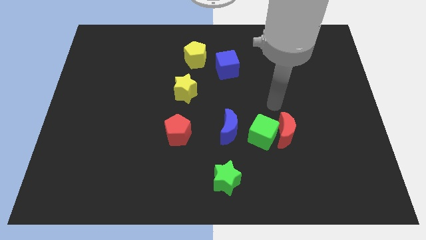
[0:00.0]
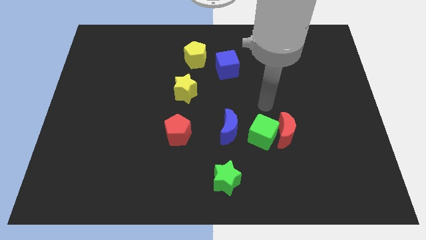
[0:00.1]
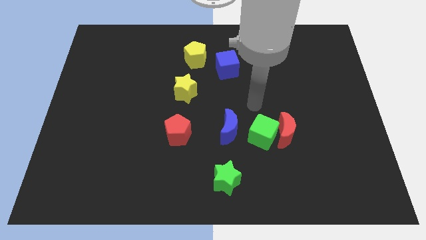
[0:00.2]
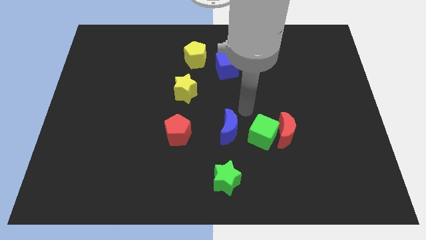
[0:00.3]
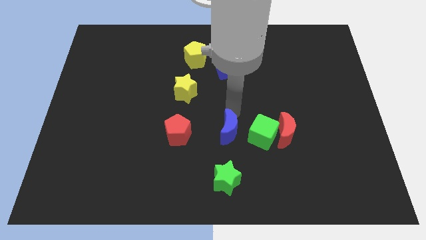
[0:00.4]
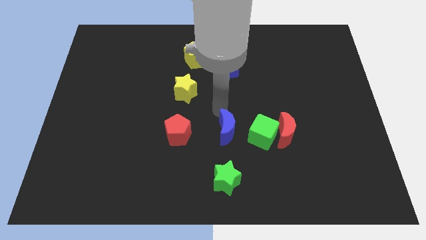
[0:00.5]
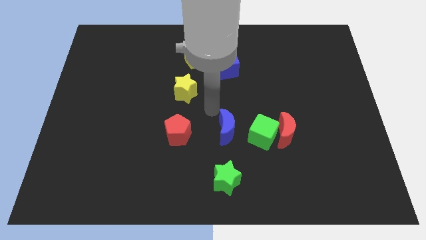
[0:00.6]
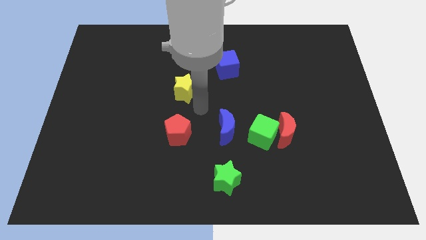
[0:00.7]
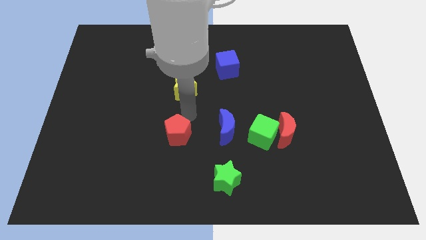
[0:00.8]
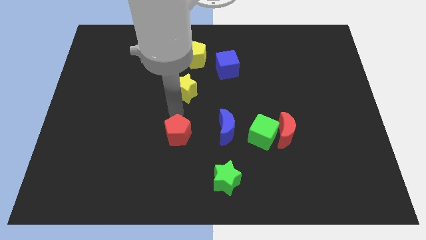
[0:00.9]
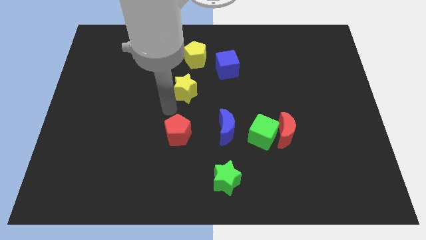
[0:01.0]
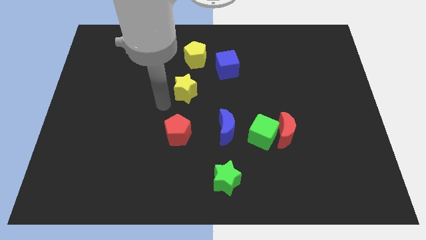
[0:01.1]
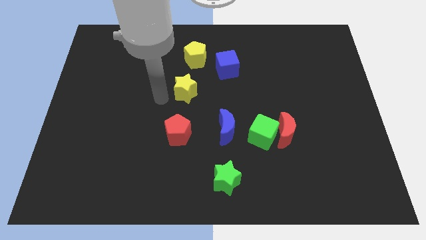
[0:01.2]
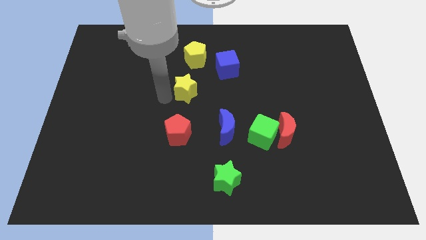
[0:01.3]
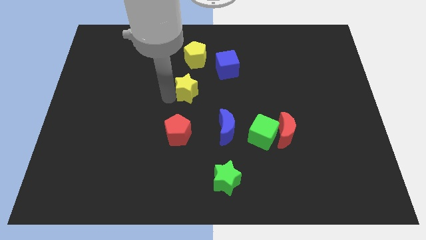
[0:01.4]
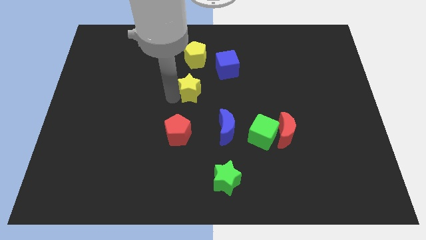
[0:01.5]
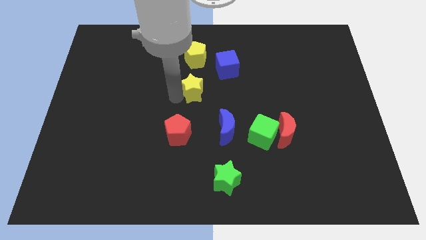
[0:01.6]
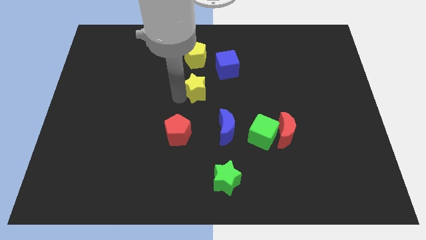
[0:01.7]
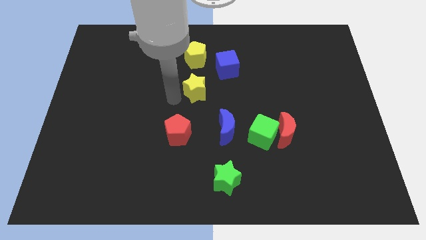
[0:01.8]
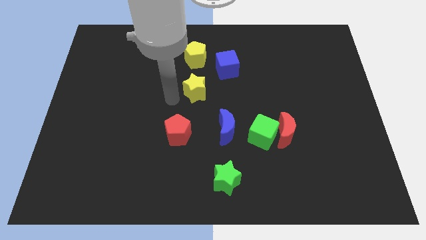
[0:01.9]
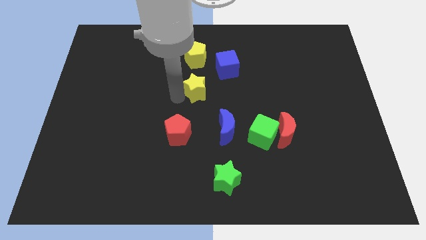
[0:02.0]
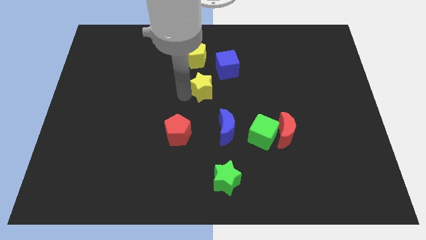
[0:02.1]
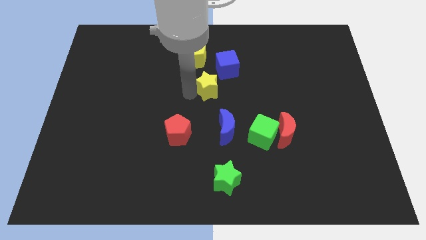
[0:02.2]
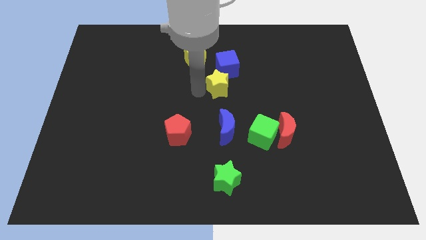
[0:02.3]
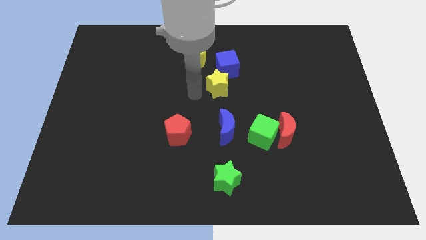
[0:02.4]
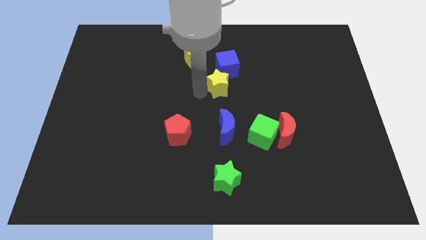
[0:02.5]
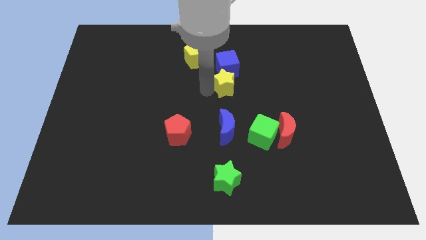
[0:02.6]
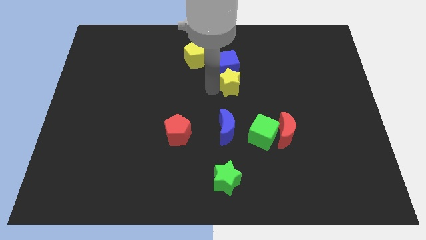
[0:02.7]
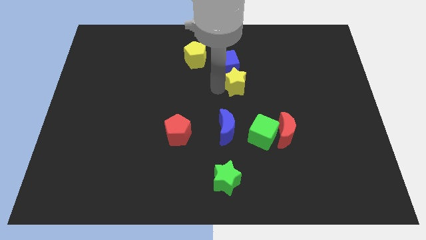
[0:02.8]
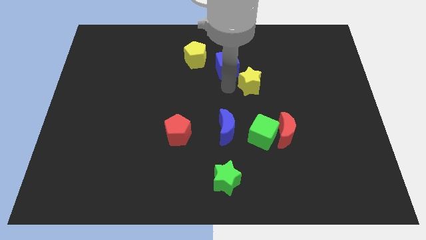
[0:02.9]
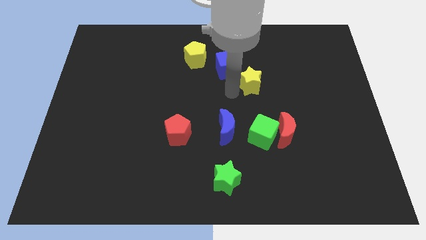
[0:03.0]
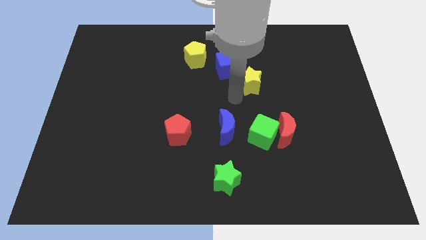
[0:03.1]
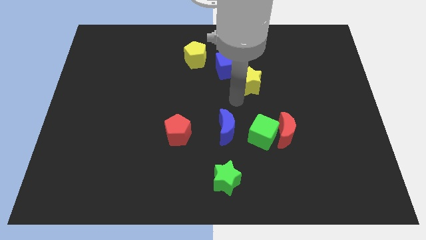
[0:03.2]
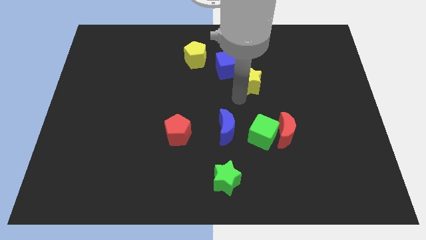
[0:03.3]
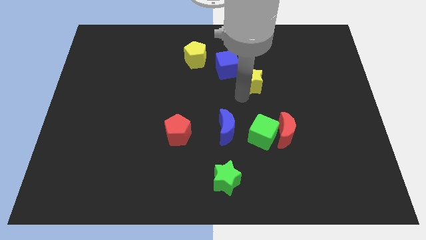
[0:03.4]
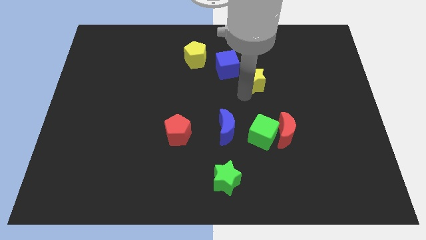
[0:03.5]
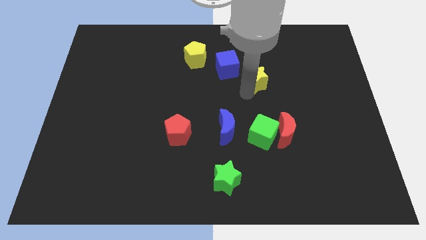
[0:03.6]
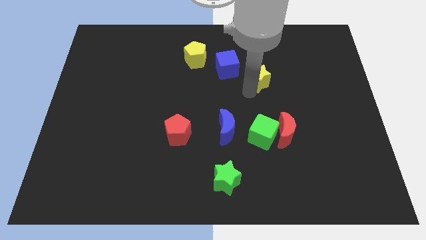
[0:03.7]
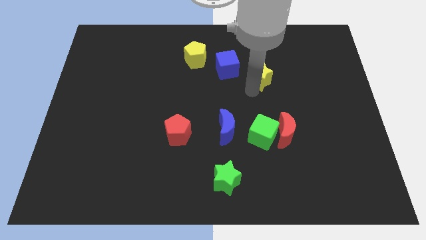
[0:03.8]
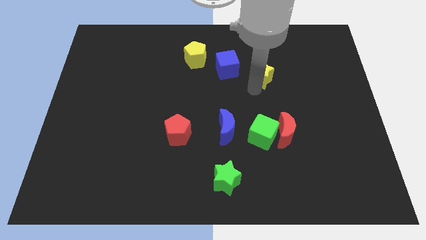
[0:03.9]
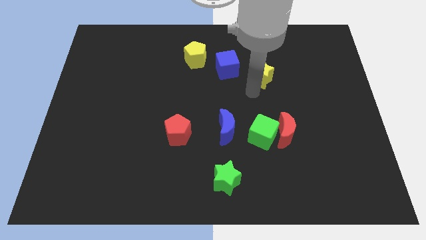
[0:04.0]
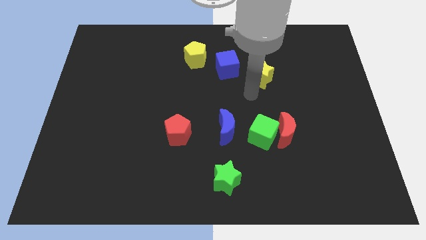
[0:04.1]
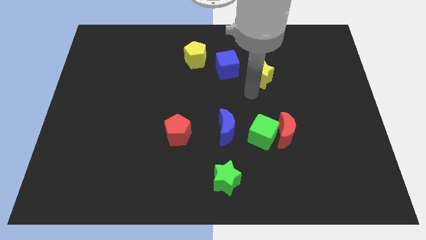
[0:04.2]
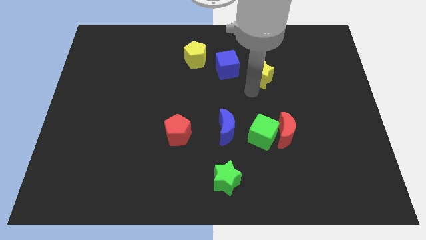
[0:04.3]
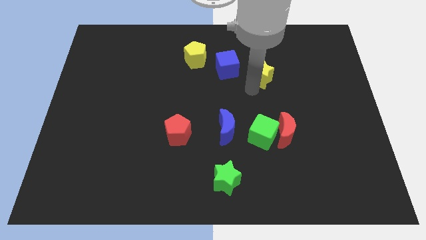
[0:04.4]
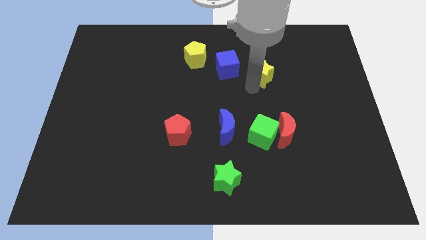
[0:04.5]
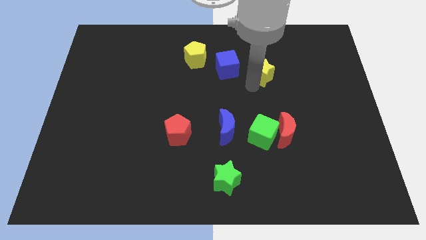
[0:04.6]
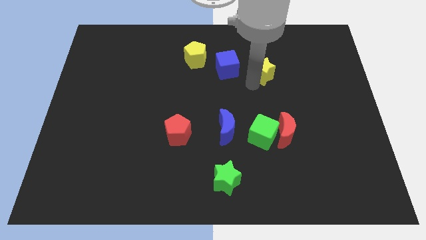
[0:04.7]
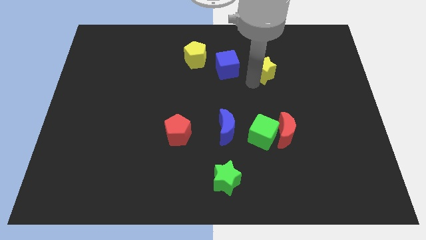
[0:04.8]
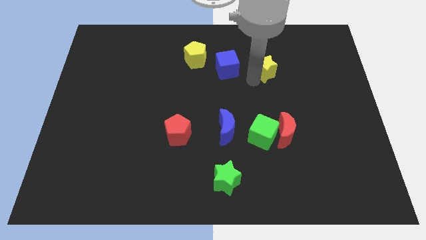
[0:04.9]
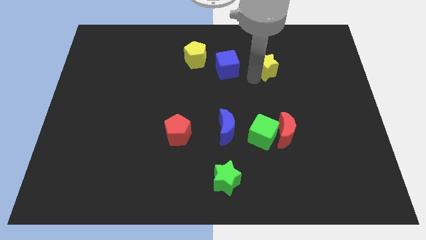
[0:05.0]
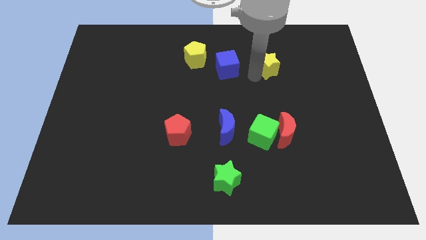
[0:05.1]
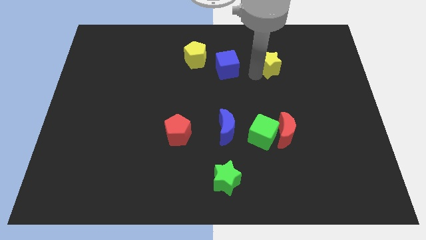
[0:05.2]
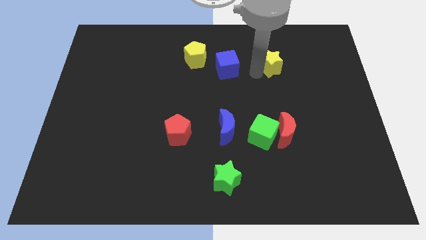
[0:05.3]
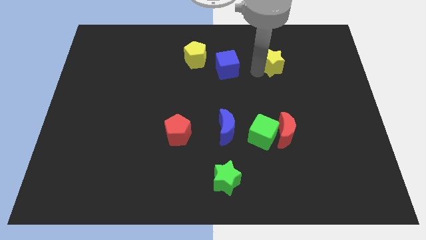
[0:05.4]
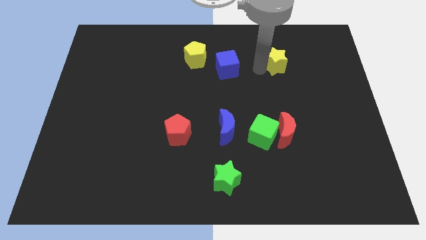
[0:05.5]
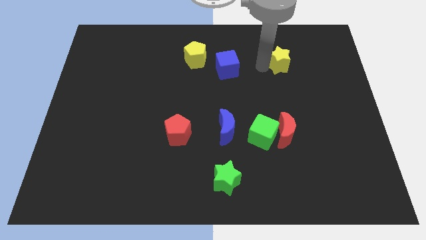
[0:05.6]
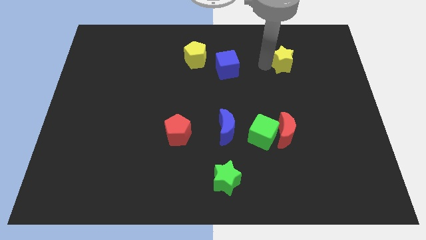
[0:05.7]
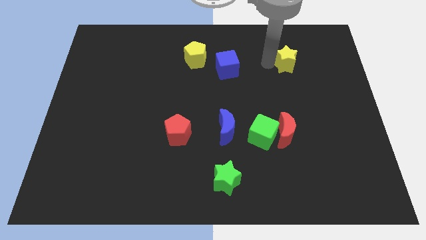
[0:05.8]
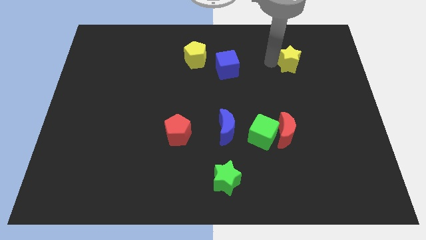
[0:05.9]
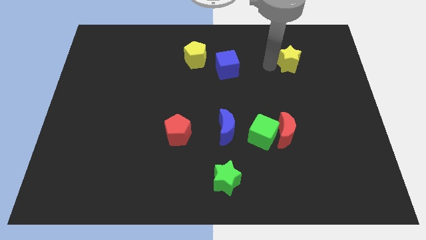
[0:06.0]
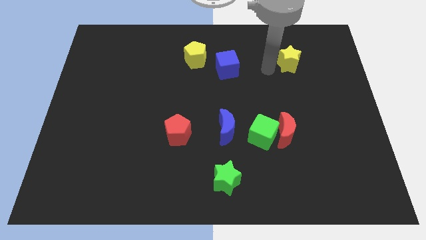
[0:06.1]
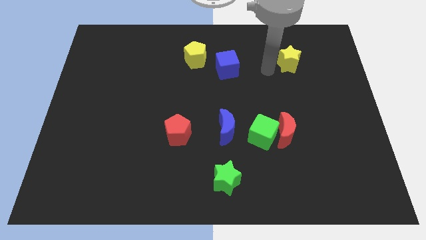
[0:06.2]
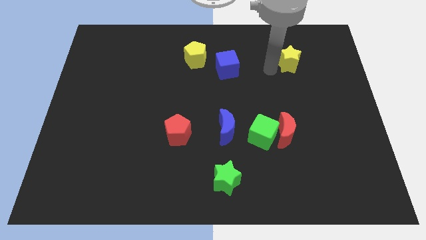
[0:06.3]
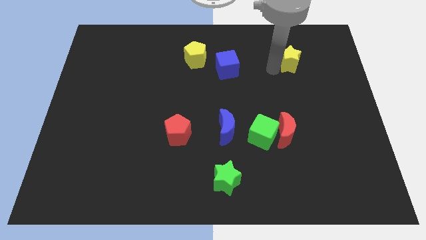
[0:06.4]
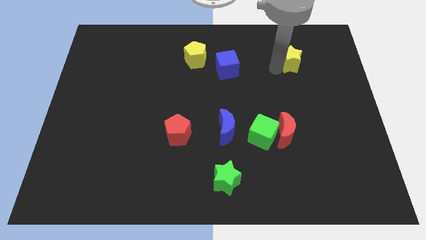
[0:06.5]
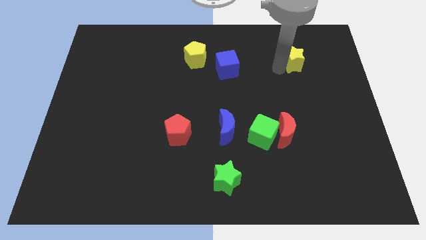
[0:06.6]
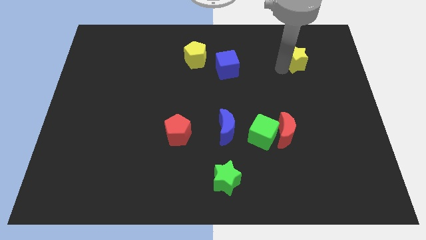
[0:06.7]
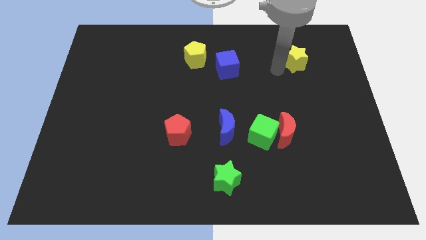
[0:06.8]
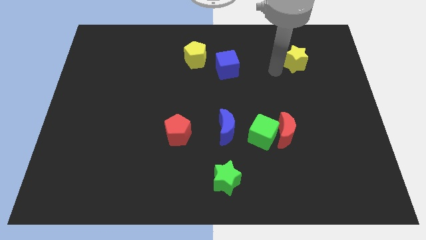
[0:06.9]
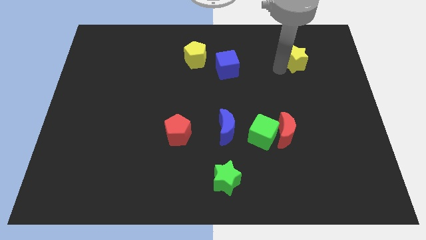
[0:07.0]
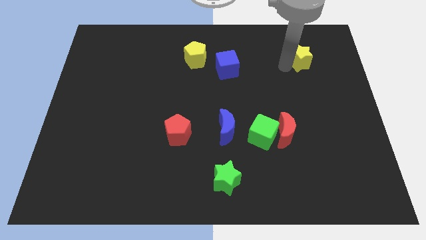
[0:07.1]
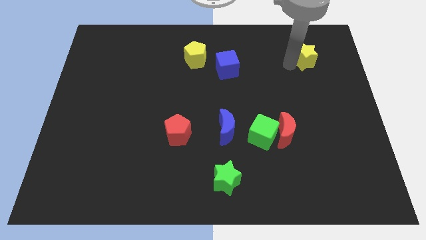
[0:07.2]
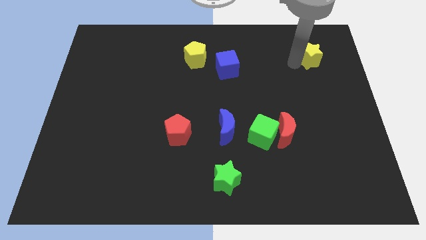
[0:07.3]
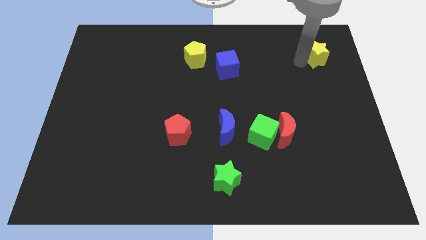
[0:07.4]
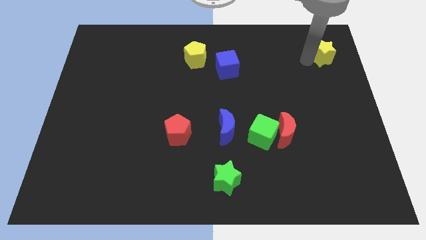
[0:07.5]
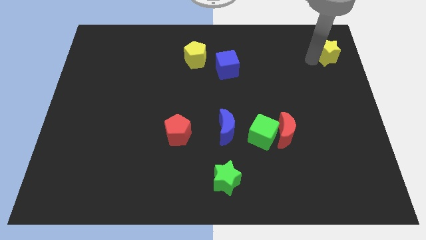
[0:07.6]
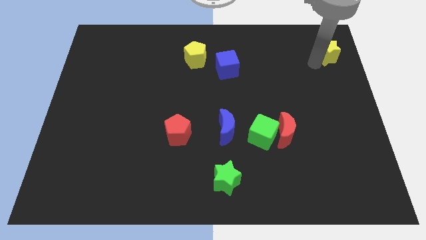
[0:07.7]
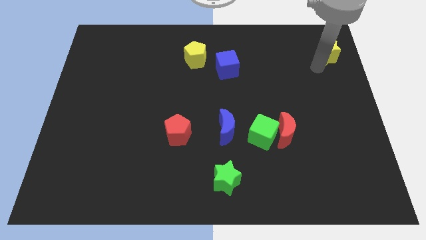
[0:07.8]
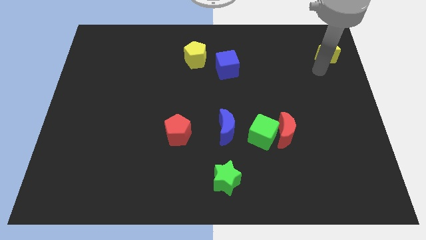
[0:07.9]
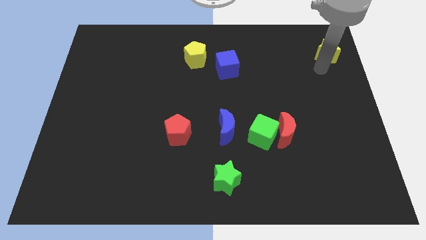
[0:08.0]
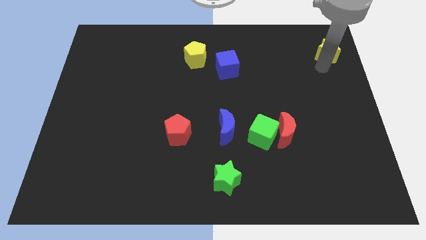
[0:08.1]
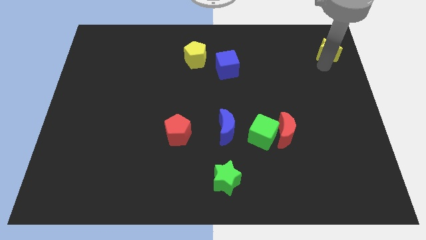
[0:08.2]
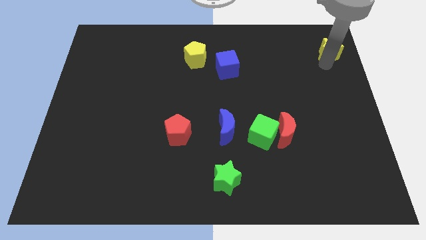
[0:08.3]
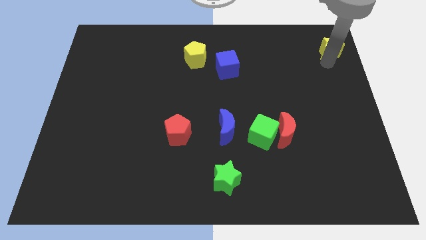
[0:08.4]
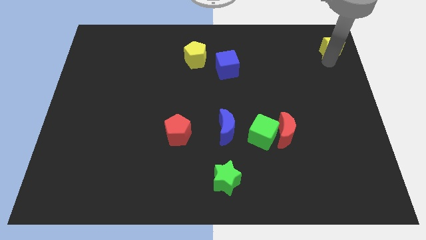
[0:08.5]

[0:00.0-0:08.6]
move the yellow star to the top right corner
